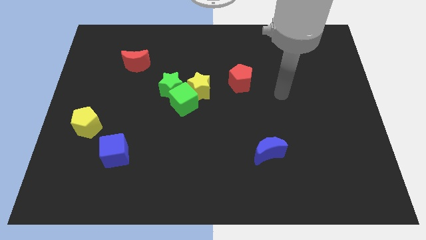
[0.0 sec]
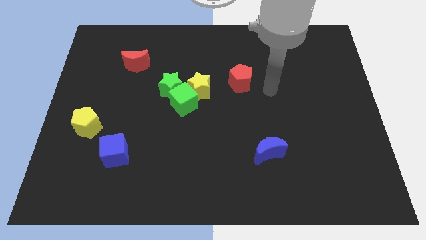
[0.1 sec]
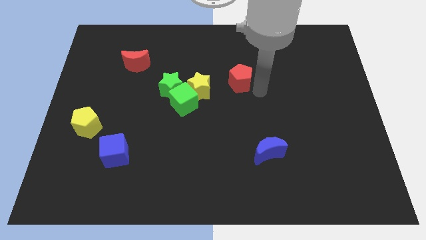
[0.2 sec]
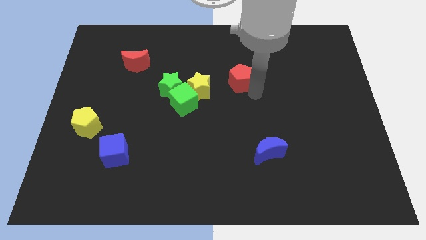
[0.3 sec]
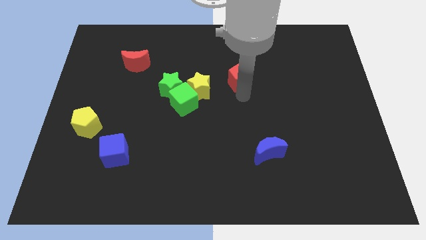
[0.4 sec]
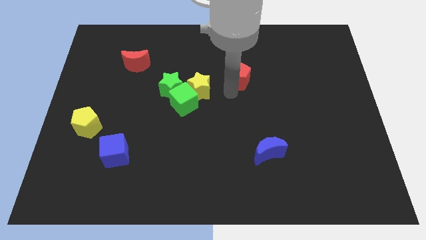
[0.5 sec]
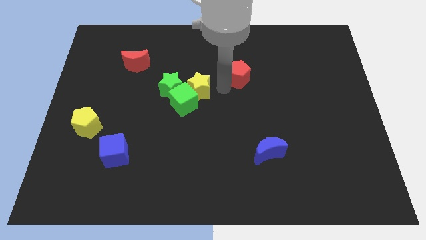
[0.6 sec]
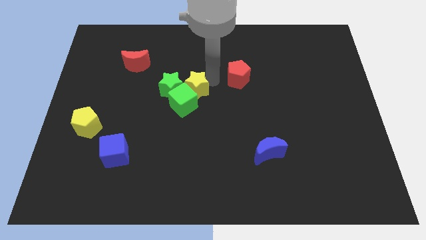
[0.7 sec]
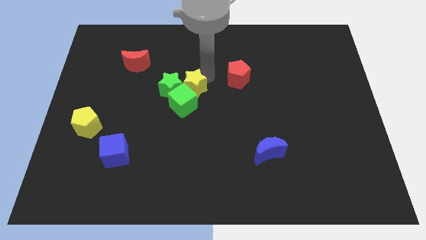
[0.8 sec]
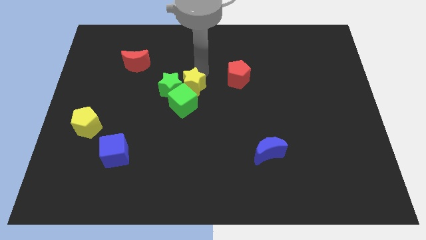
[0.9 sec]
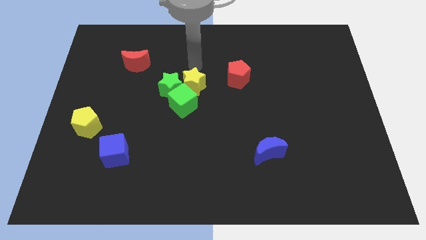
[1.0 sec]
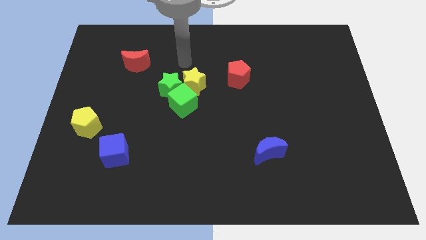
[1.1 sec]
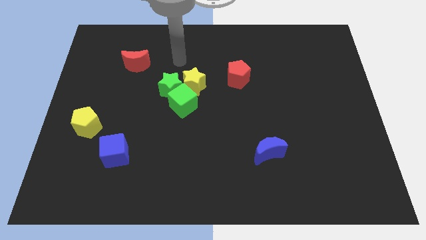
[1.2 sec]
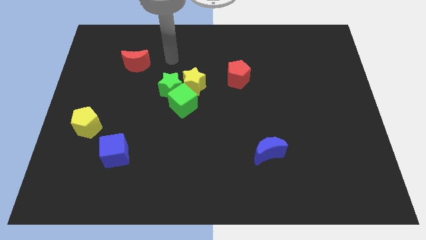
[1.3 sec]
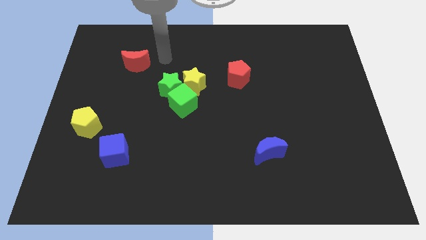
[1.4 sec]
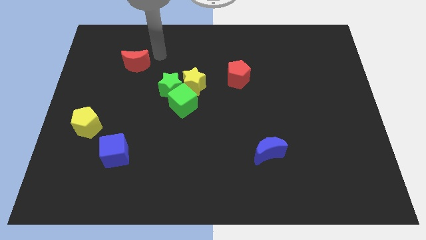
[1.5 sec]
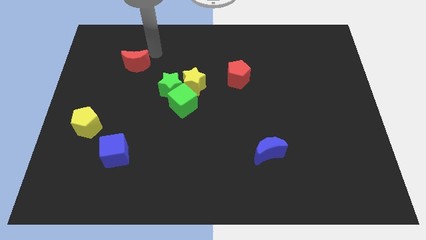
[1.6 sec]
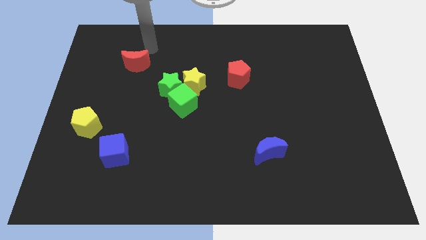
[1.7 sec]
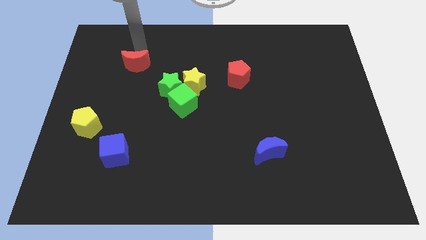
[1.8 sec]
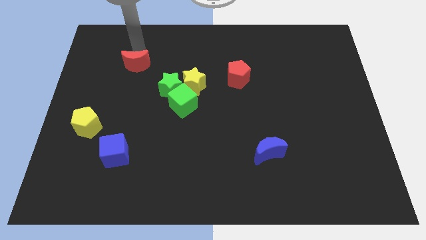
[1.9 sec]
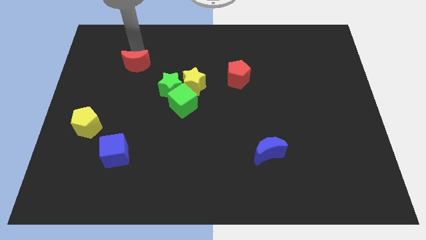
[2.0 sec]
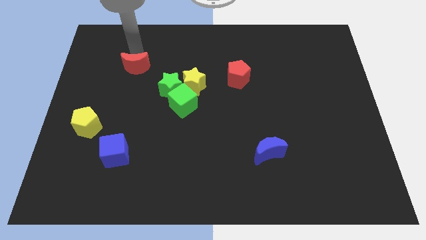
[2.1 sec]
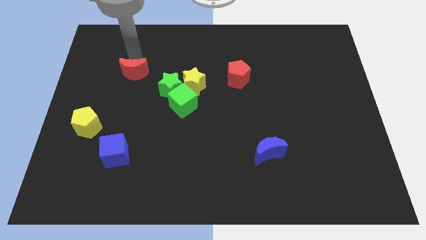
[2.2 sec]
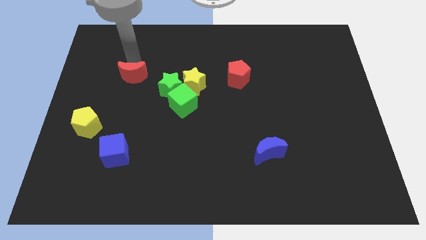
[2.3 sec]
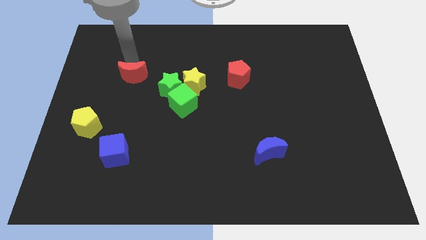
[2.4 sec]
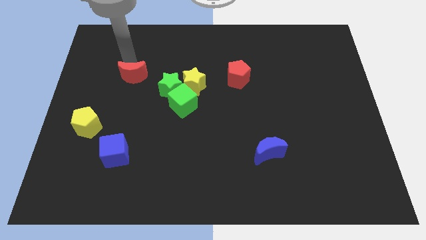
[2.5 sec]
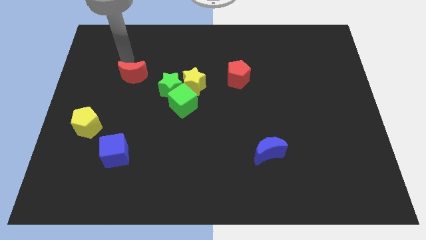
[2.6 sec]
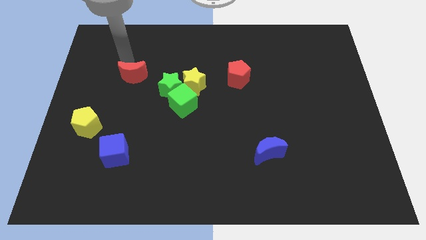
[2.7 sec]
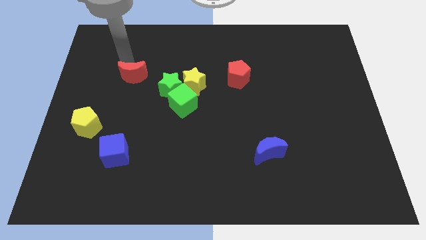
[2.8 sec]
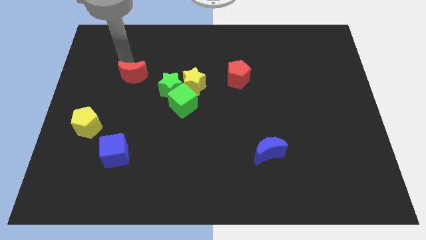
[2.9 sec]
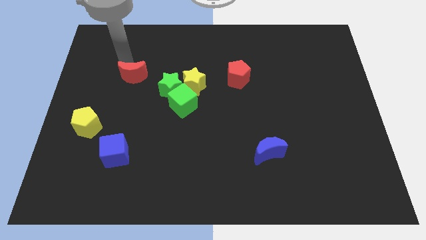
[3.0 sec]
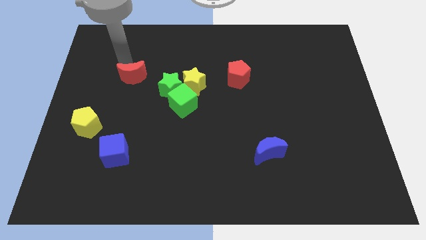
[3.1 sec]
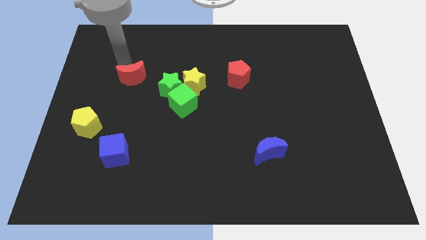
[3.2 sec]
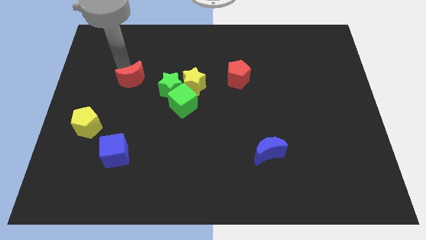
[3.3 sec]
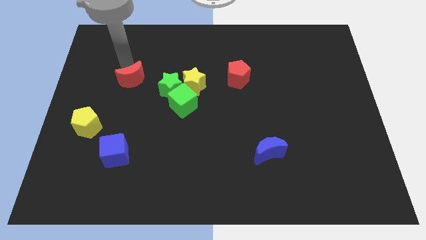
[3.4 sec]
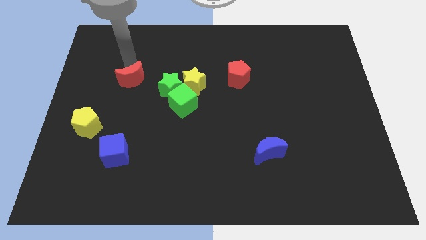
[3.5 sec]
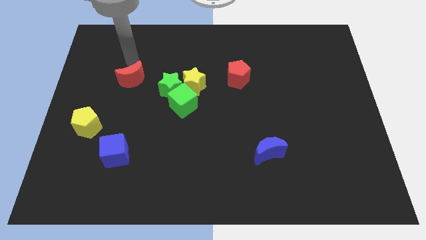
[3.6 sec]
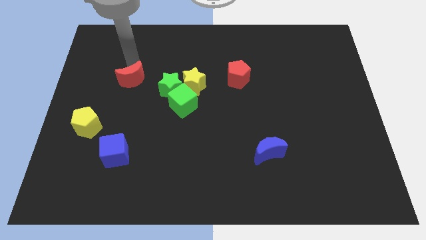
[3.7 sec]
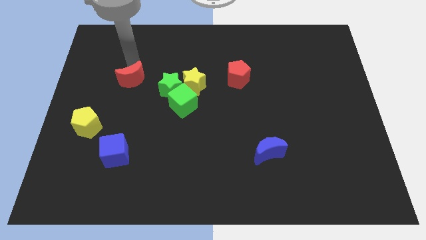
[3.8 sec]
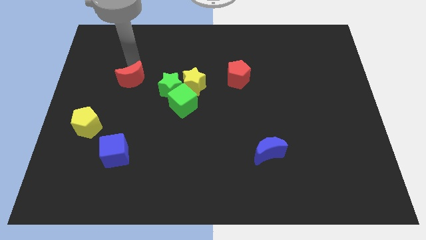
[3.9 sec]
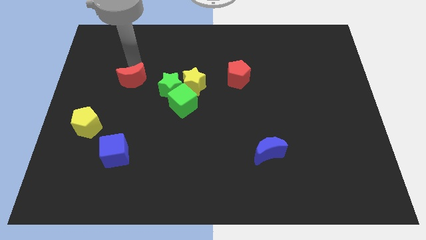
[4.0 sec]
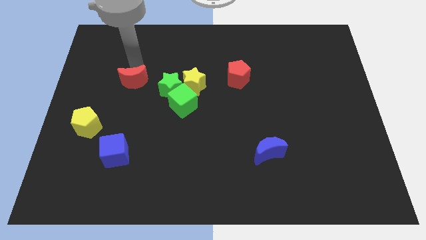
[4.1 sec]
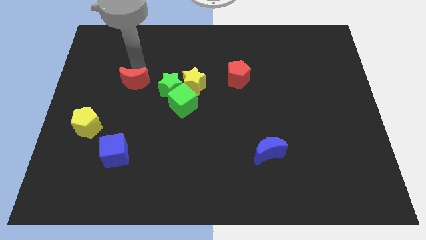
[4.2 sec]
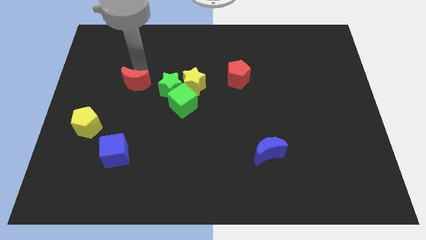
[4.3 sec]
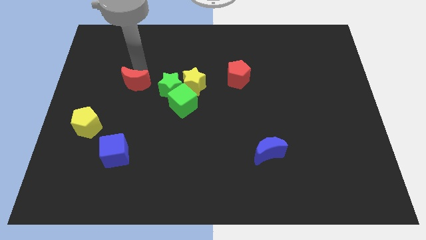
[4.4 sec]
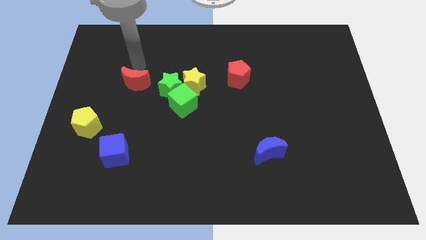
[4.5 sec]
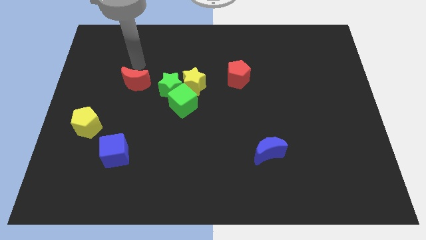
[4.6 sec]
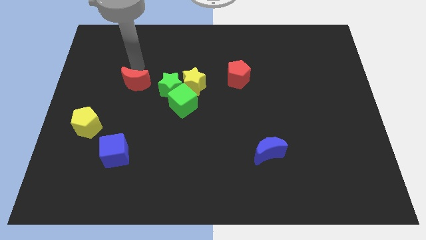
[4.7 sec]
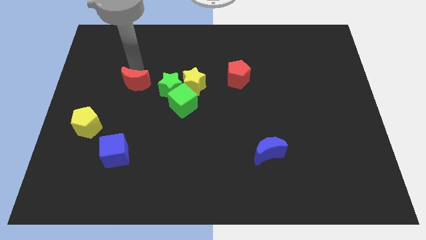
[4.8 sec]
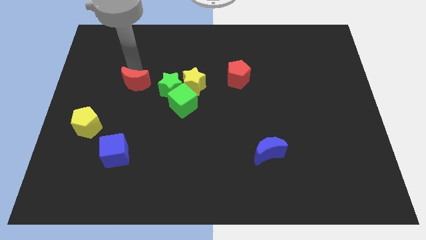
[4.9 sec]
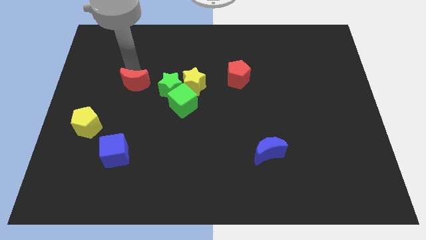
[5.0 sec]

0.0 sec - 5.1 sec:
slide the red moon slightly downwards

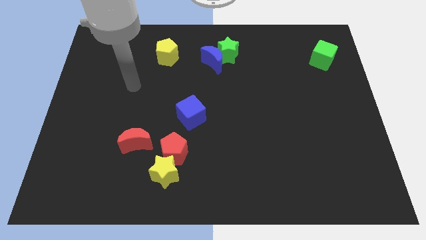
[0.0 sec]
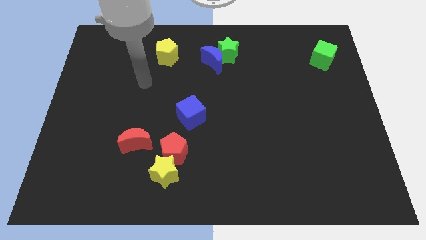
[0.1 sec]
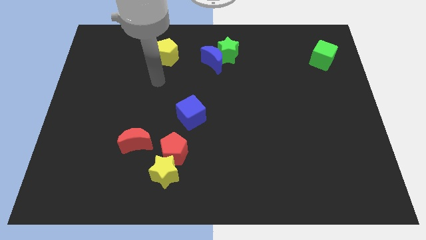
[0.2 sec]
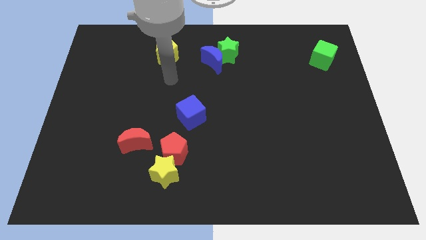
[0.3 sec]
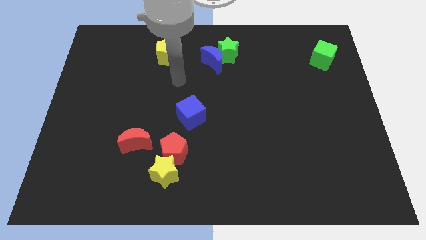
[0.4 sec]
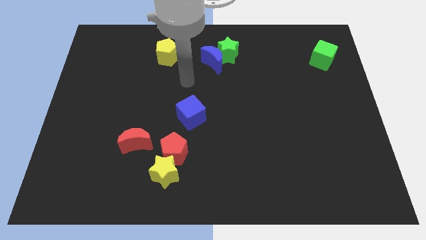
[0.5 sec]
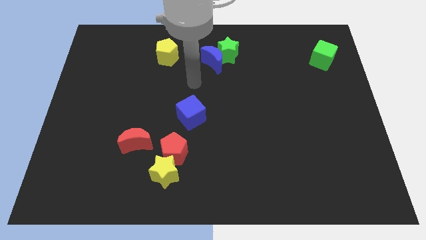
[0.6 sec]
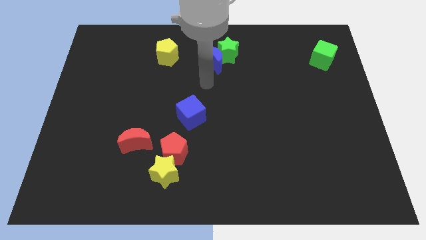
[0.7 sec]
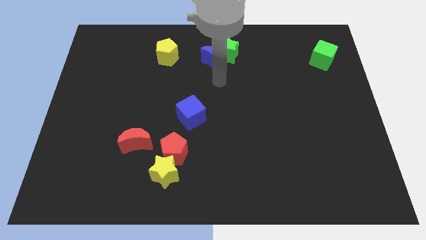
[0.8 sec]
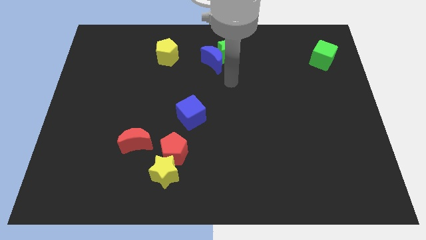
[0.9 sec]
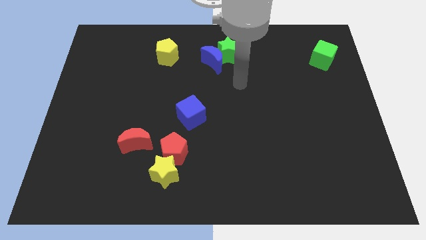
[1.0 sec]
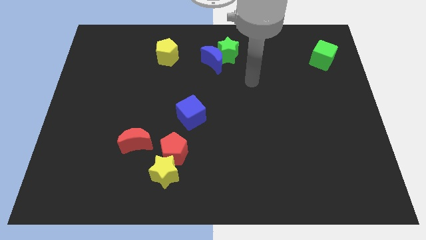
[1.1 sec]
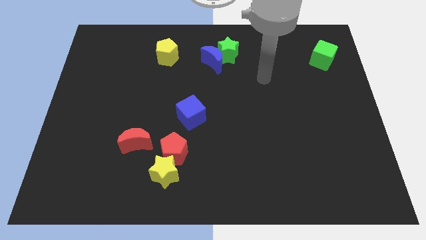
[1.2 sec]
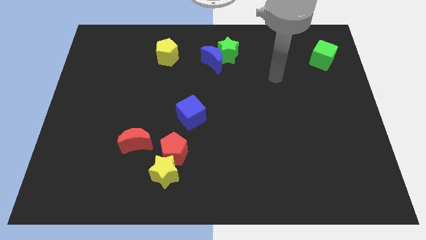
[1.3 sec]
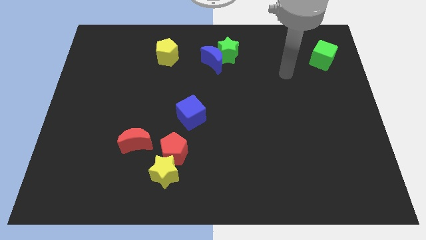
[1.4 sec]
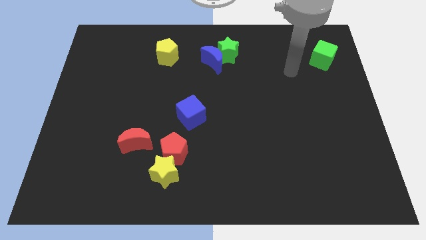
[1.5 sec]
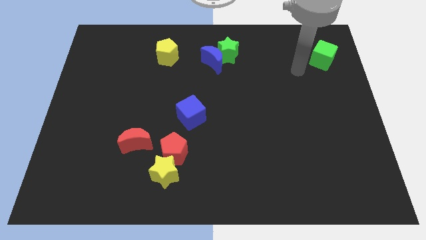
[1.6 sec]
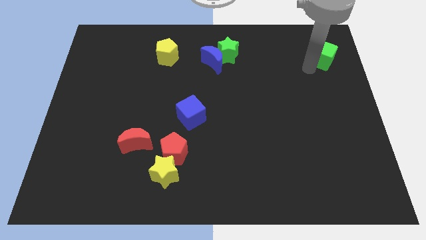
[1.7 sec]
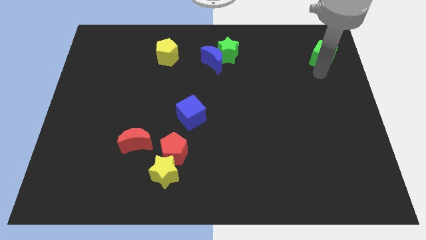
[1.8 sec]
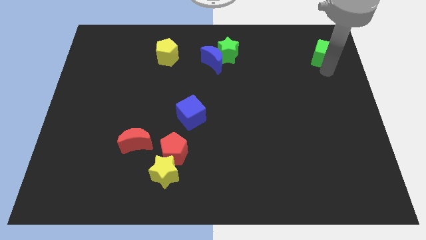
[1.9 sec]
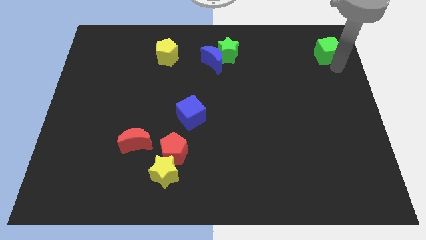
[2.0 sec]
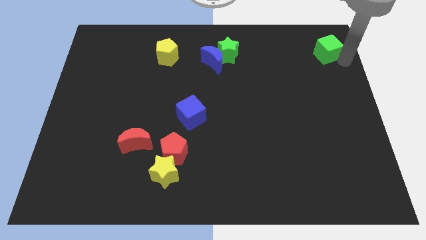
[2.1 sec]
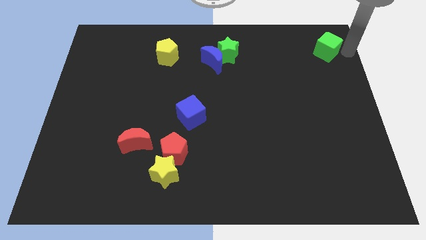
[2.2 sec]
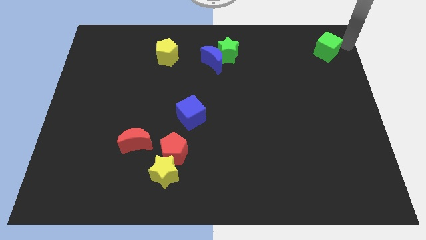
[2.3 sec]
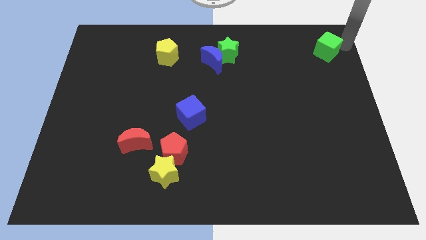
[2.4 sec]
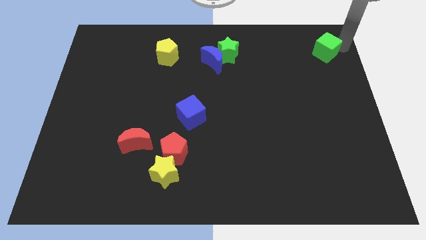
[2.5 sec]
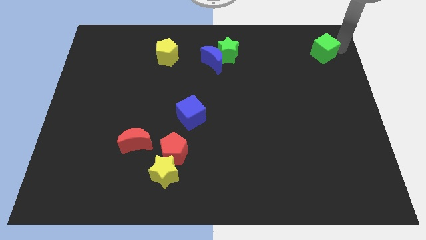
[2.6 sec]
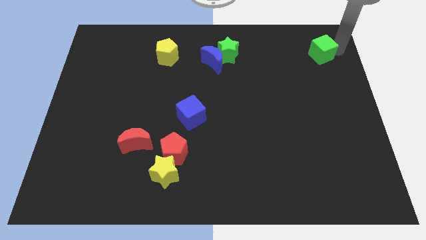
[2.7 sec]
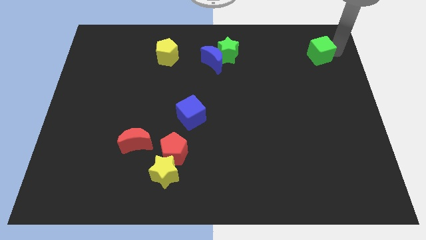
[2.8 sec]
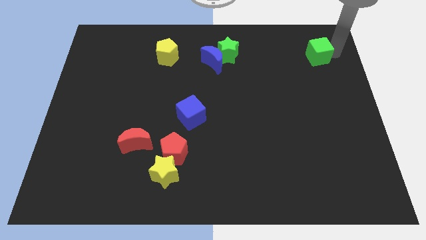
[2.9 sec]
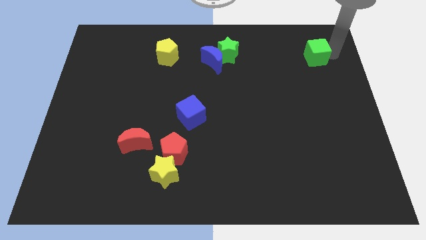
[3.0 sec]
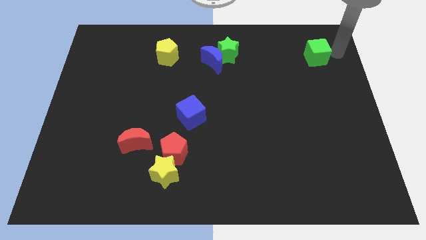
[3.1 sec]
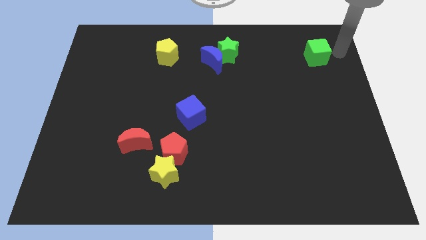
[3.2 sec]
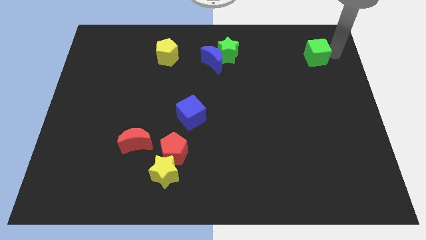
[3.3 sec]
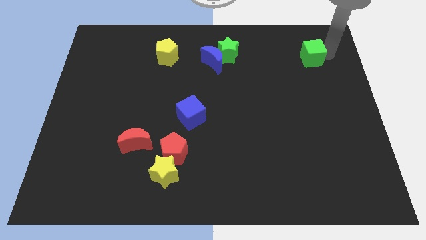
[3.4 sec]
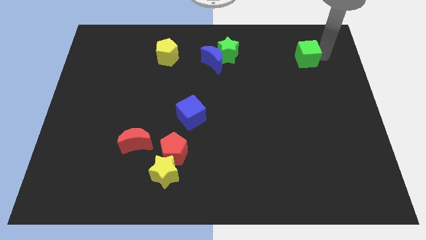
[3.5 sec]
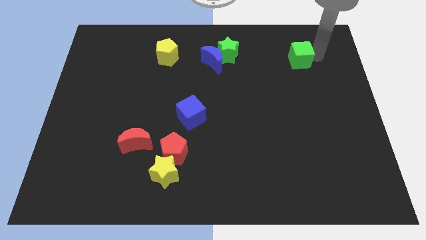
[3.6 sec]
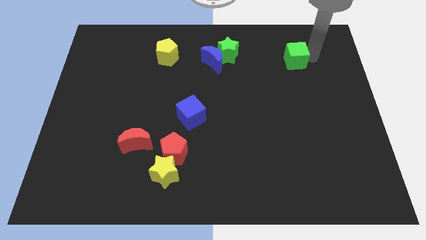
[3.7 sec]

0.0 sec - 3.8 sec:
slide the green cube to the left a little
